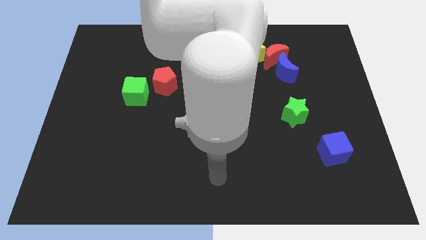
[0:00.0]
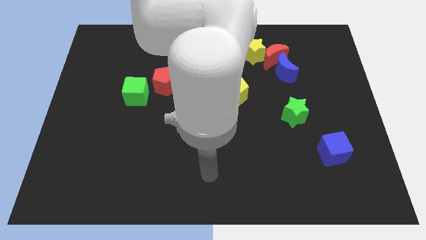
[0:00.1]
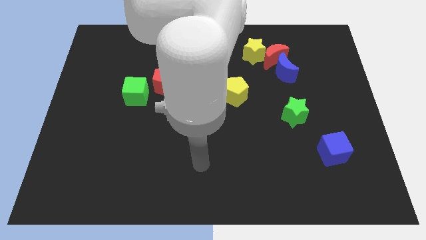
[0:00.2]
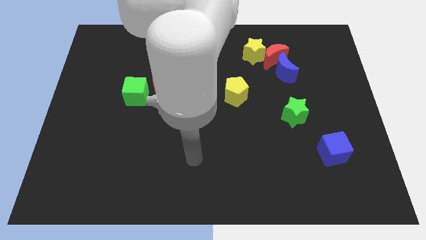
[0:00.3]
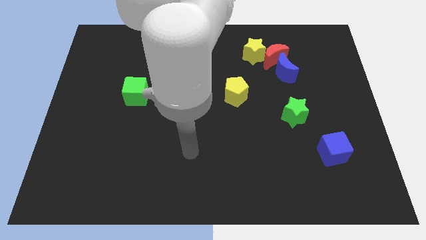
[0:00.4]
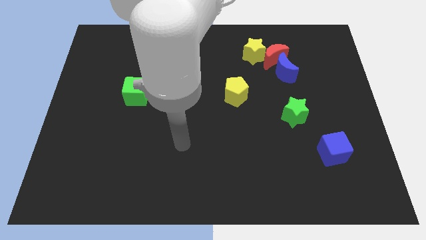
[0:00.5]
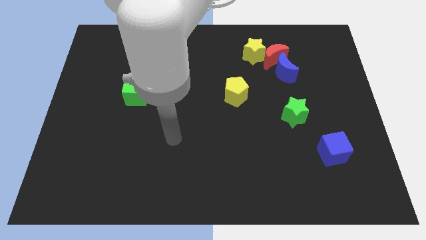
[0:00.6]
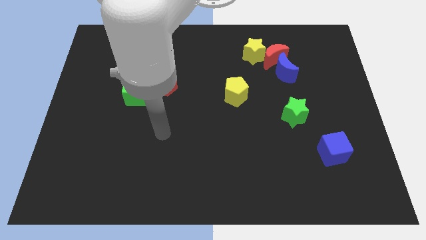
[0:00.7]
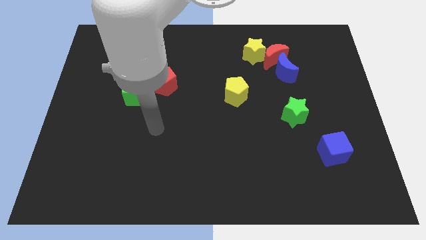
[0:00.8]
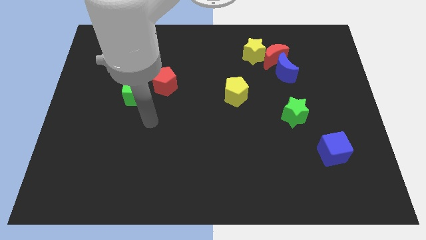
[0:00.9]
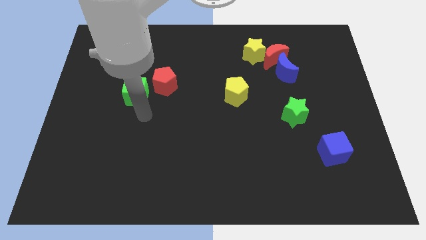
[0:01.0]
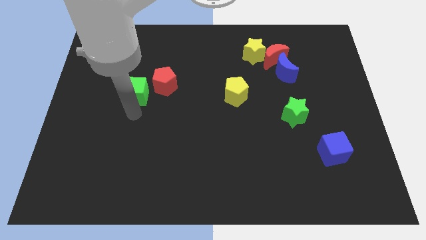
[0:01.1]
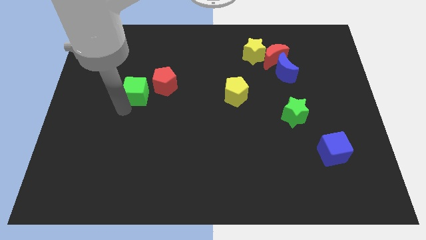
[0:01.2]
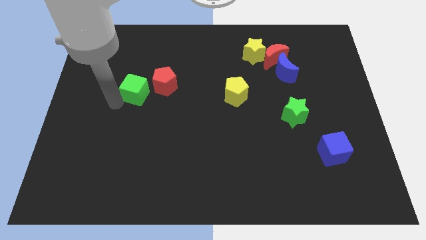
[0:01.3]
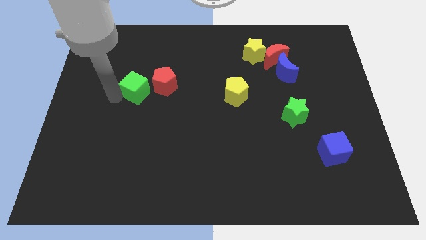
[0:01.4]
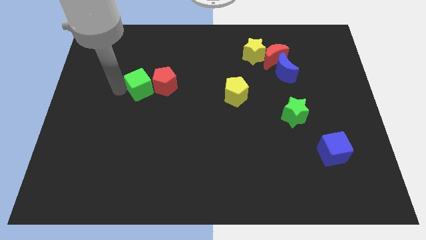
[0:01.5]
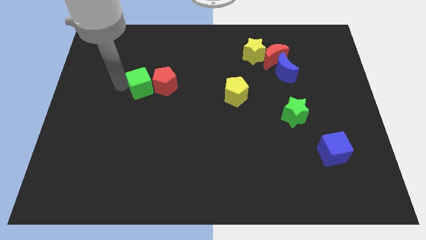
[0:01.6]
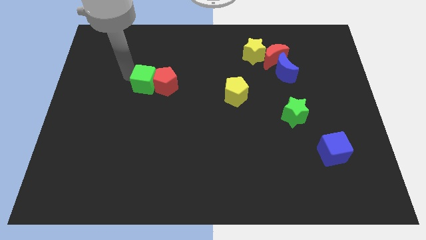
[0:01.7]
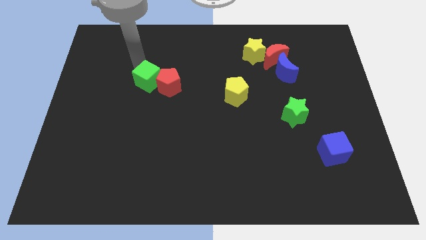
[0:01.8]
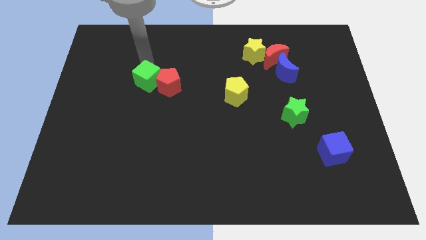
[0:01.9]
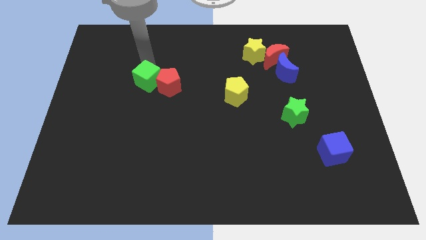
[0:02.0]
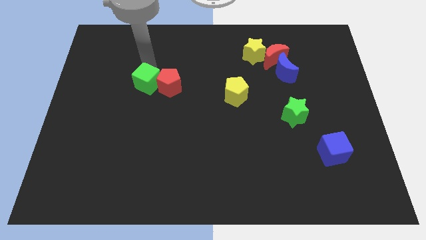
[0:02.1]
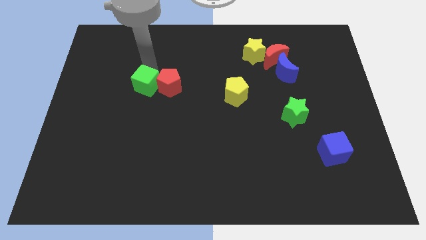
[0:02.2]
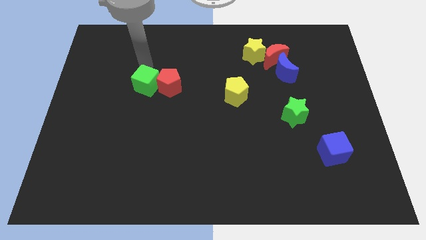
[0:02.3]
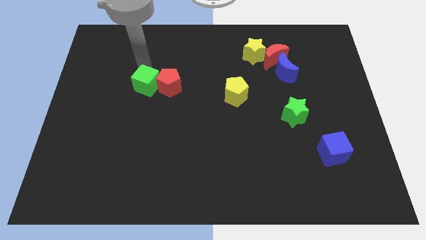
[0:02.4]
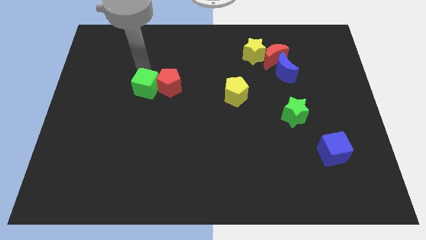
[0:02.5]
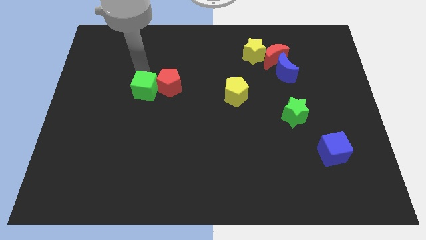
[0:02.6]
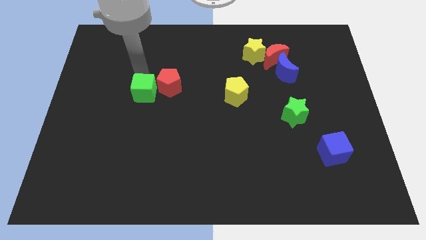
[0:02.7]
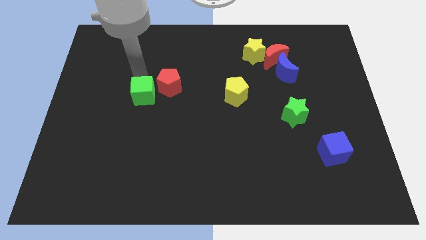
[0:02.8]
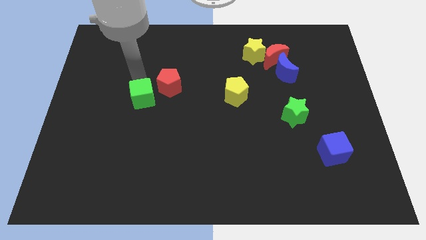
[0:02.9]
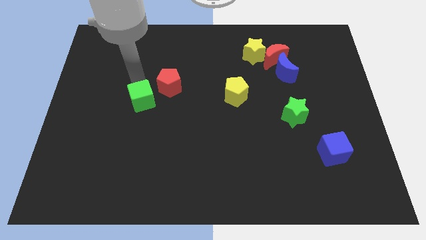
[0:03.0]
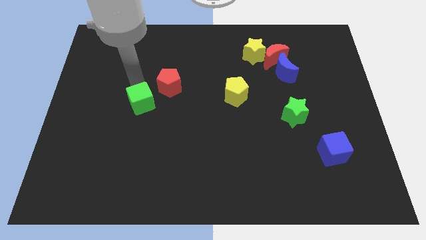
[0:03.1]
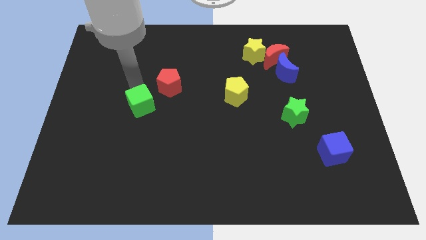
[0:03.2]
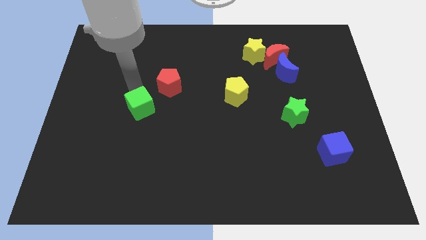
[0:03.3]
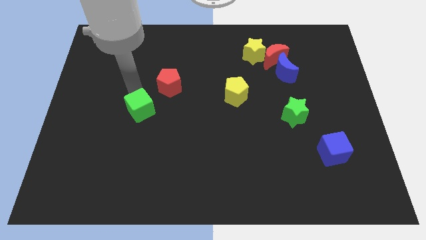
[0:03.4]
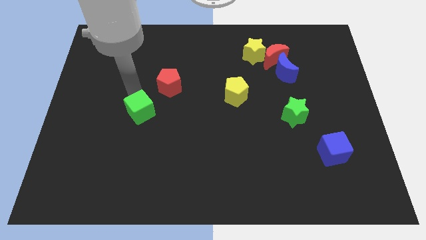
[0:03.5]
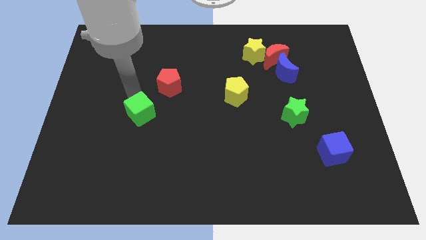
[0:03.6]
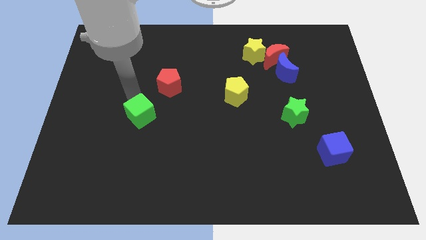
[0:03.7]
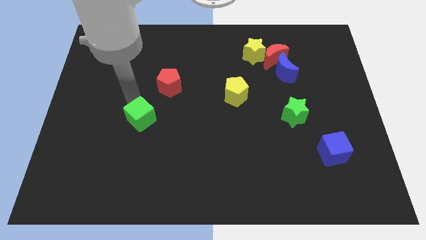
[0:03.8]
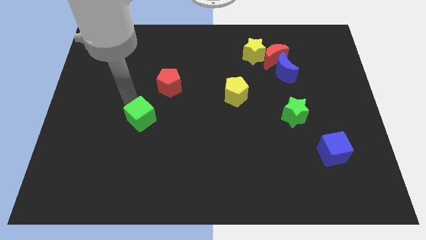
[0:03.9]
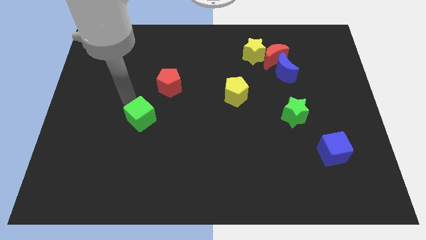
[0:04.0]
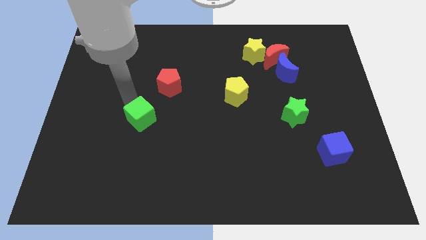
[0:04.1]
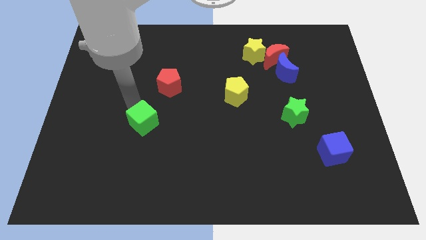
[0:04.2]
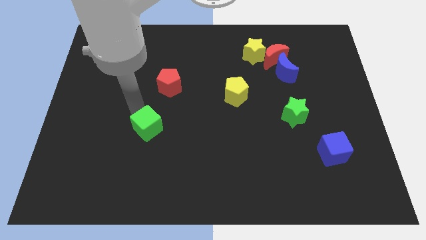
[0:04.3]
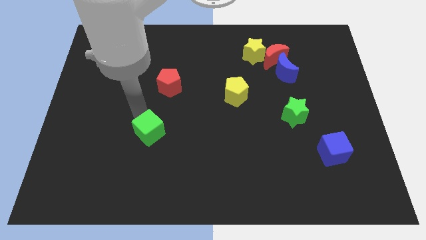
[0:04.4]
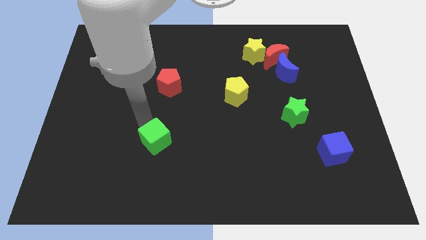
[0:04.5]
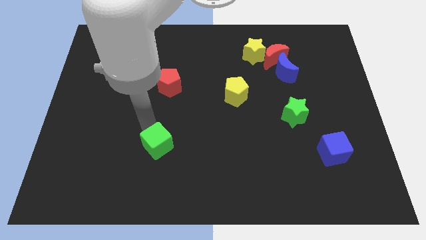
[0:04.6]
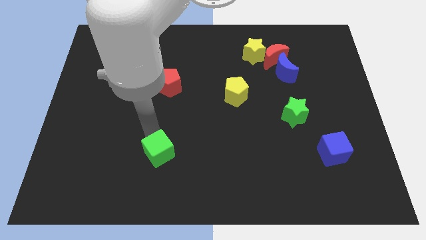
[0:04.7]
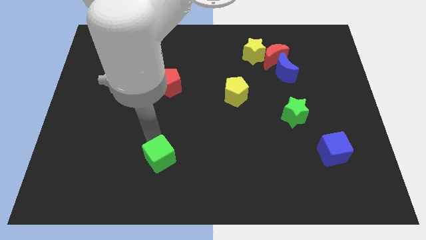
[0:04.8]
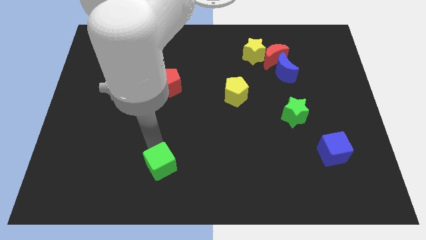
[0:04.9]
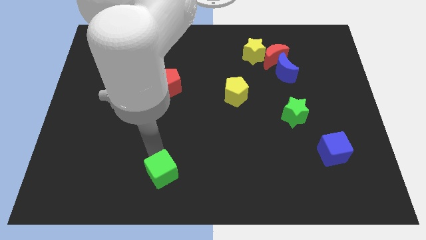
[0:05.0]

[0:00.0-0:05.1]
push the green cube to the bottom side

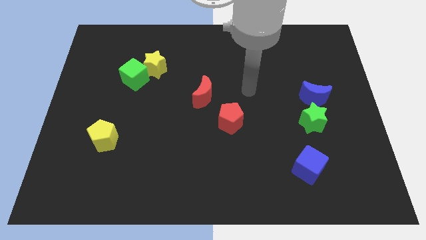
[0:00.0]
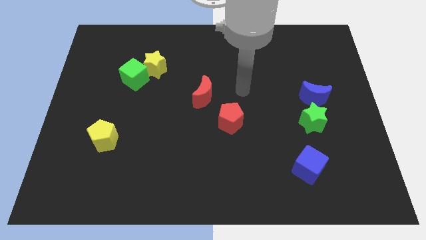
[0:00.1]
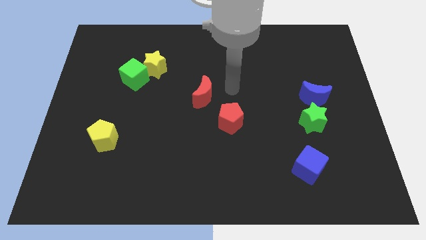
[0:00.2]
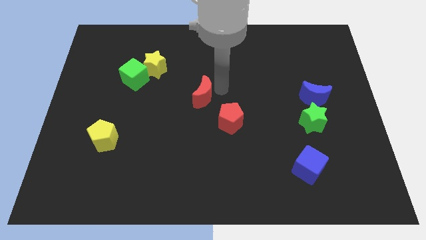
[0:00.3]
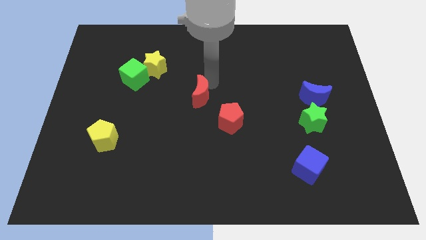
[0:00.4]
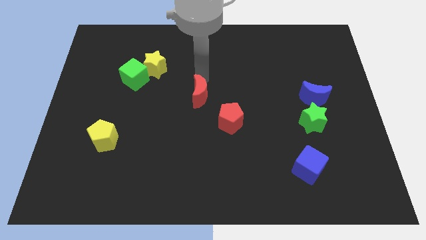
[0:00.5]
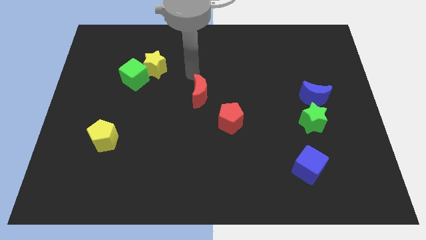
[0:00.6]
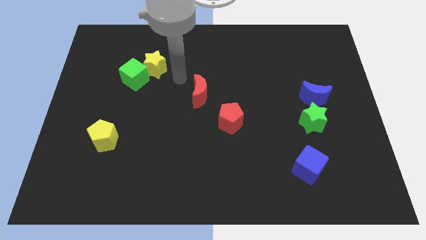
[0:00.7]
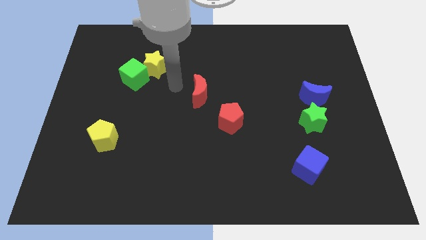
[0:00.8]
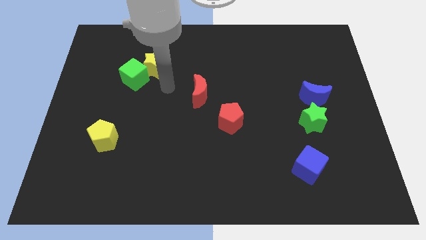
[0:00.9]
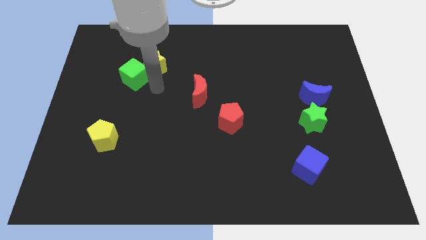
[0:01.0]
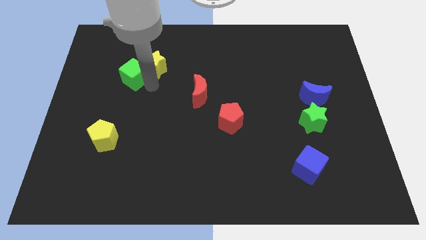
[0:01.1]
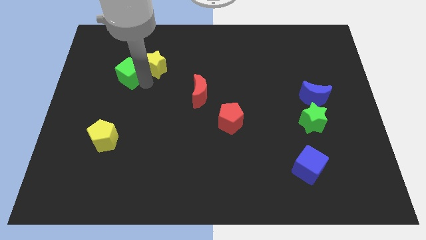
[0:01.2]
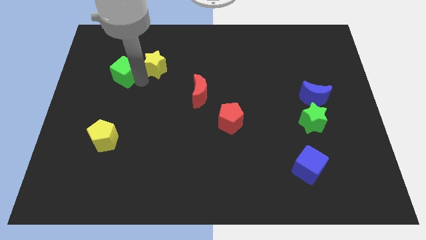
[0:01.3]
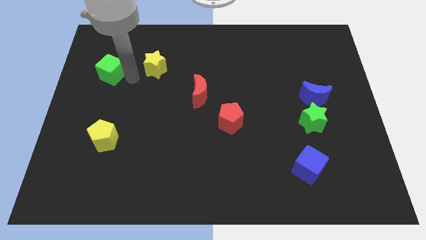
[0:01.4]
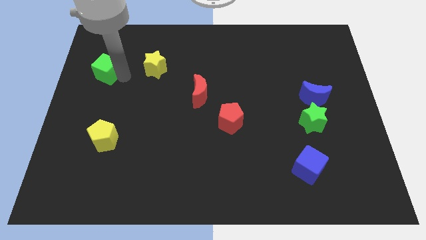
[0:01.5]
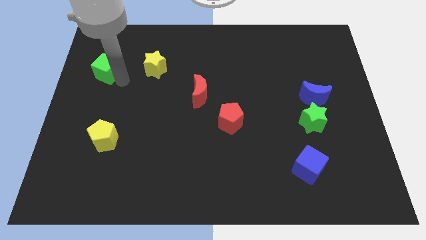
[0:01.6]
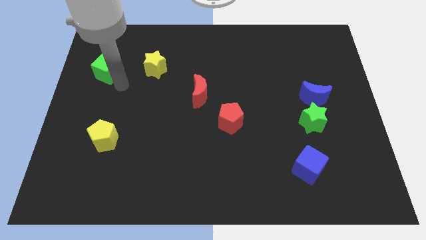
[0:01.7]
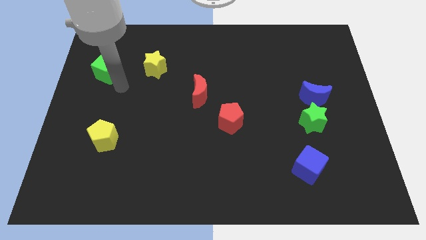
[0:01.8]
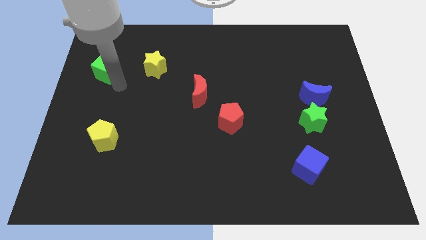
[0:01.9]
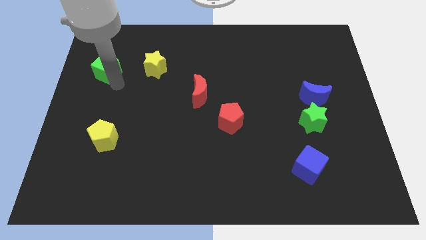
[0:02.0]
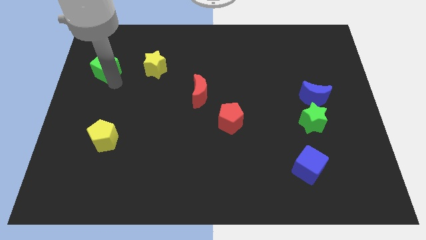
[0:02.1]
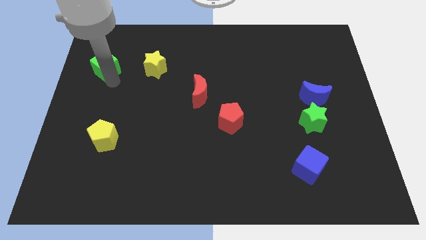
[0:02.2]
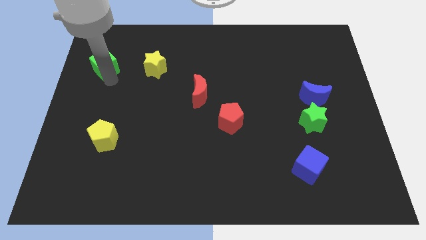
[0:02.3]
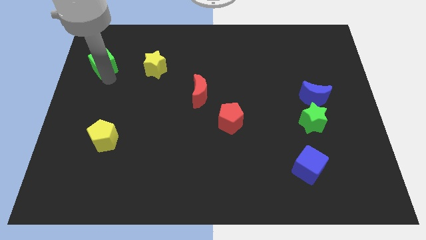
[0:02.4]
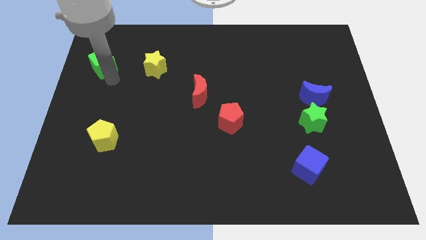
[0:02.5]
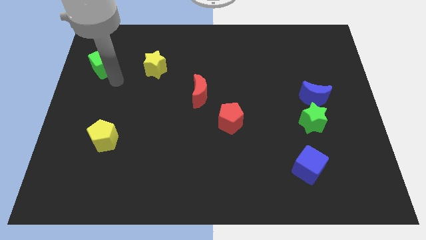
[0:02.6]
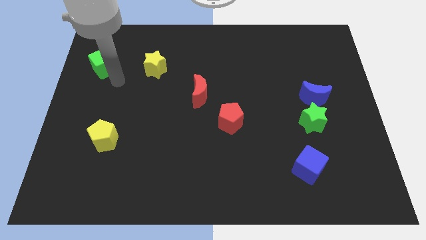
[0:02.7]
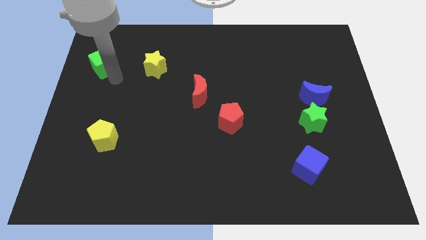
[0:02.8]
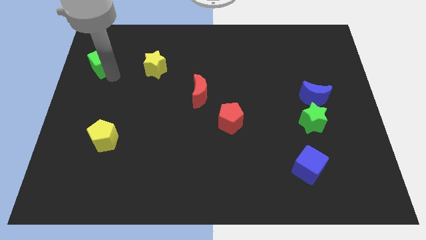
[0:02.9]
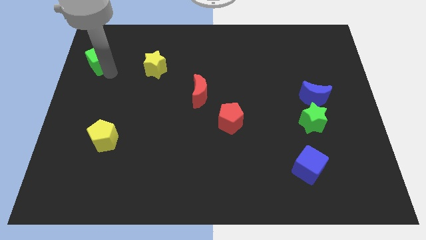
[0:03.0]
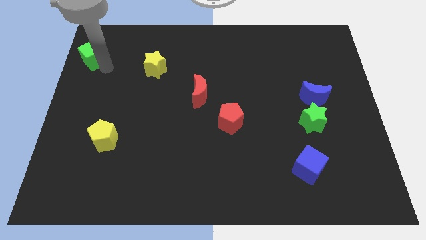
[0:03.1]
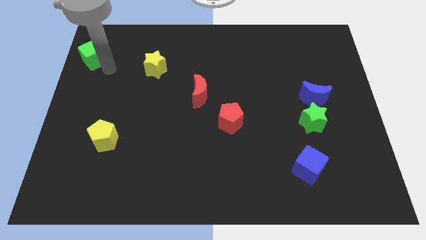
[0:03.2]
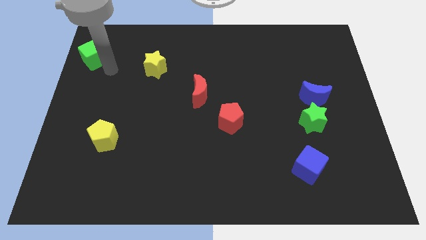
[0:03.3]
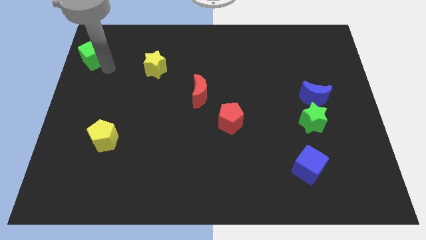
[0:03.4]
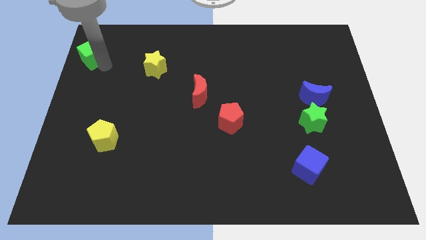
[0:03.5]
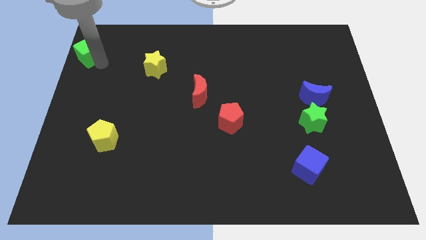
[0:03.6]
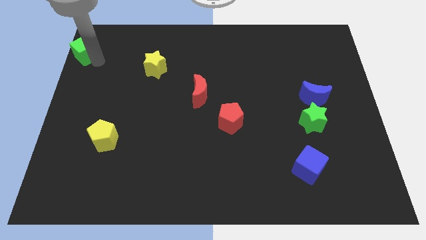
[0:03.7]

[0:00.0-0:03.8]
move the green cube to the top left
